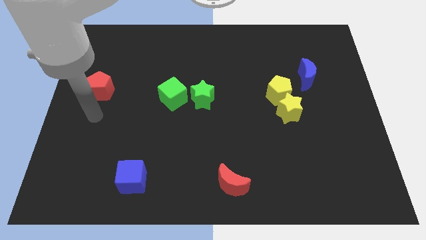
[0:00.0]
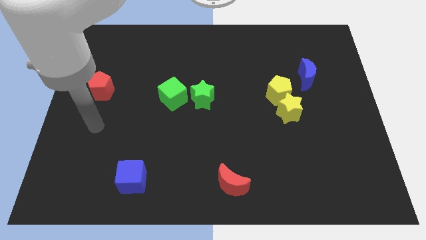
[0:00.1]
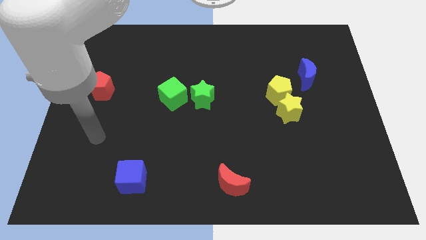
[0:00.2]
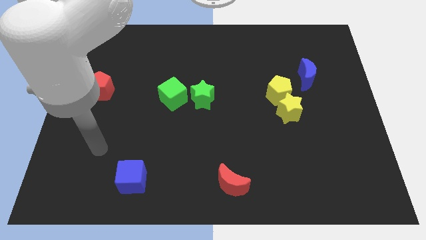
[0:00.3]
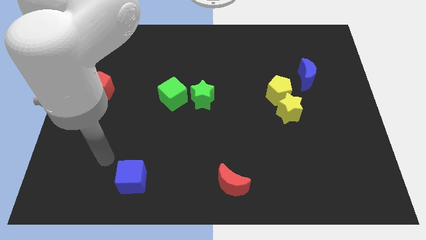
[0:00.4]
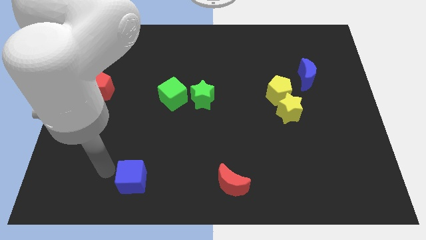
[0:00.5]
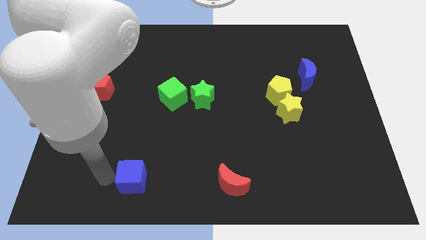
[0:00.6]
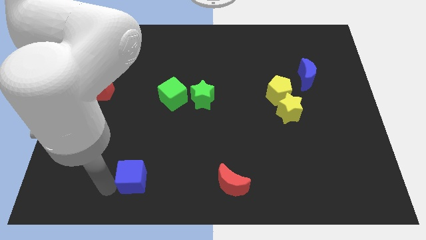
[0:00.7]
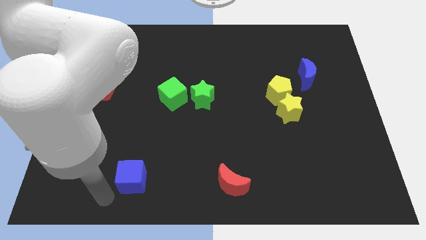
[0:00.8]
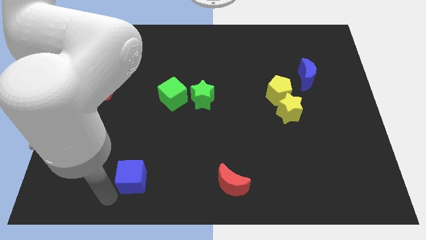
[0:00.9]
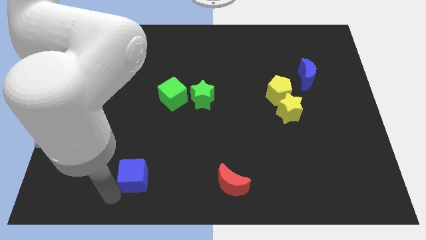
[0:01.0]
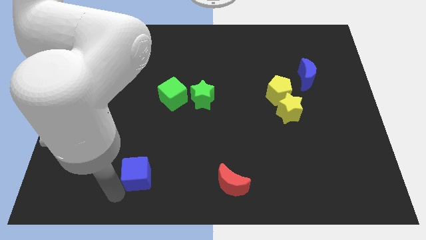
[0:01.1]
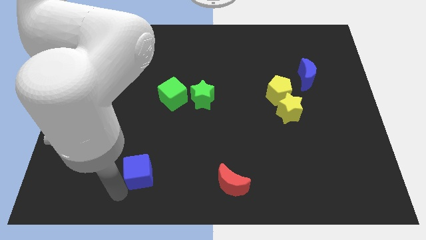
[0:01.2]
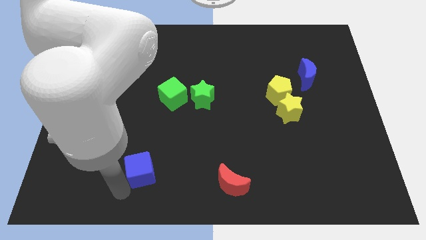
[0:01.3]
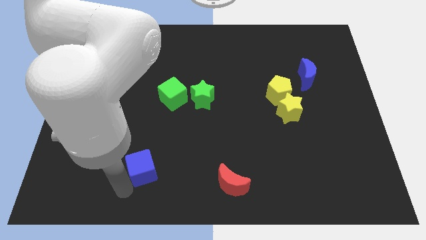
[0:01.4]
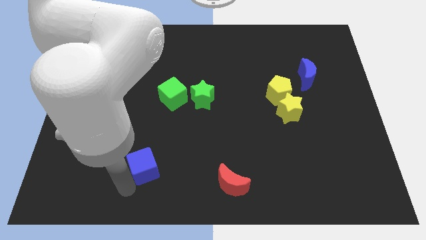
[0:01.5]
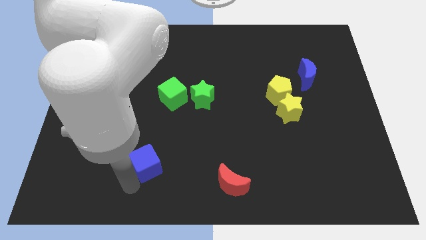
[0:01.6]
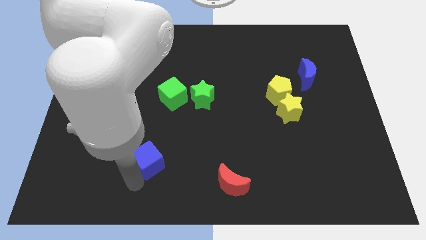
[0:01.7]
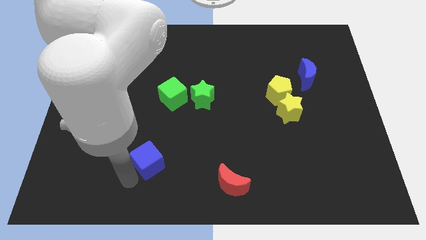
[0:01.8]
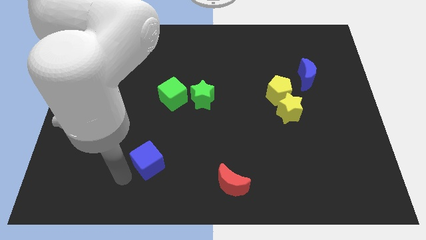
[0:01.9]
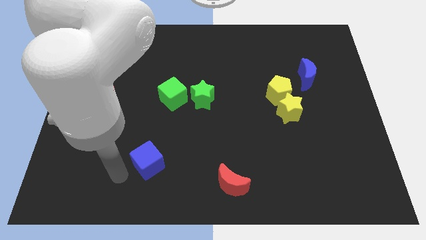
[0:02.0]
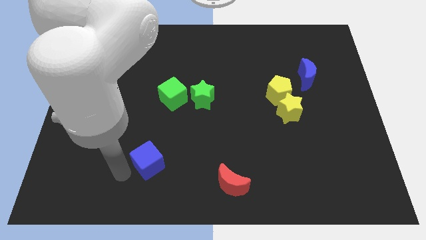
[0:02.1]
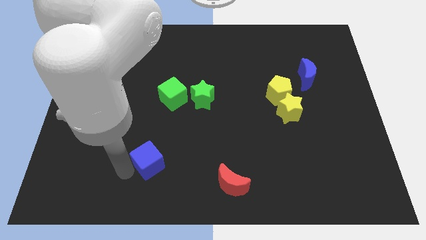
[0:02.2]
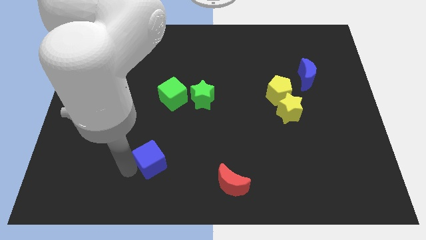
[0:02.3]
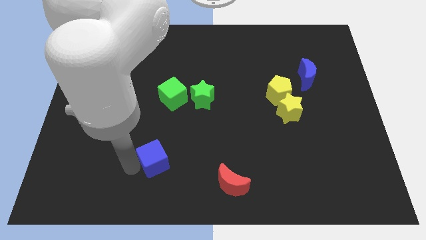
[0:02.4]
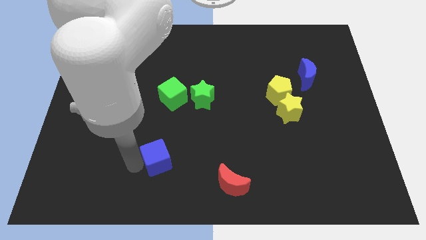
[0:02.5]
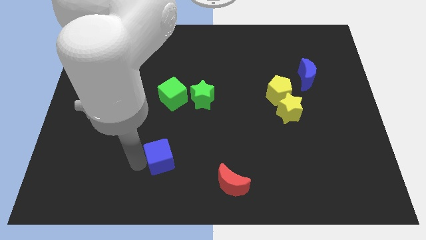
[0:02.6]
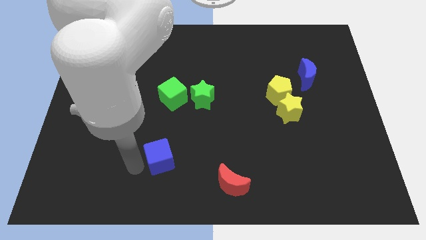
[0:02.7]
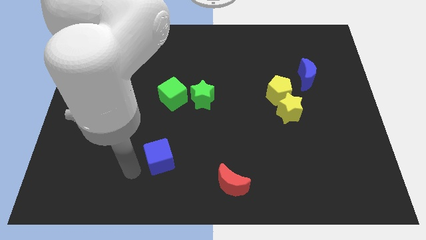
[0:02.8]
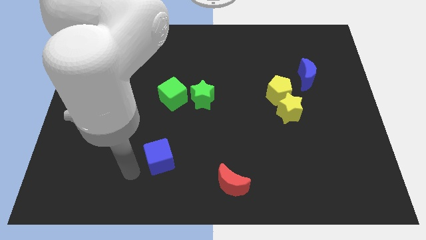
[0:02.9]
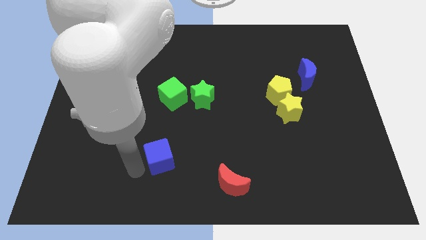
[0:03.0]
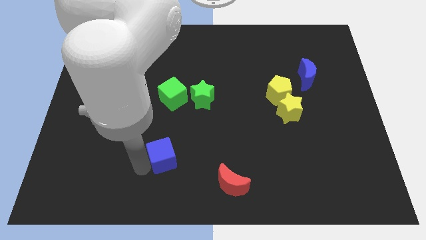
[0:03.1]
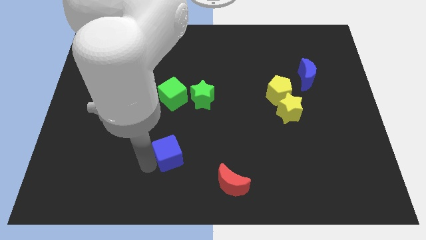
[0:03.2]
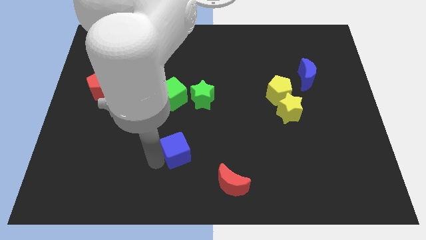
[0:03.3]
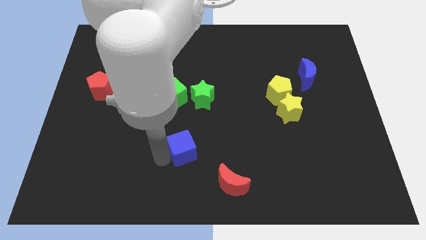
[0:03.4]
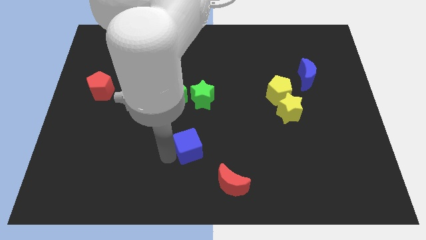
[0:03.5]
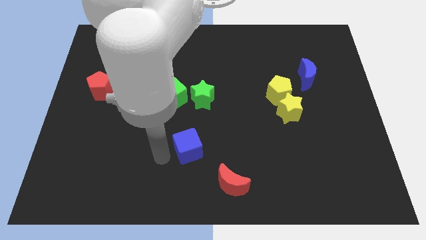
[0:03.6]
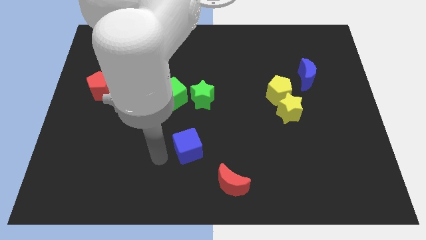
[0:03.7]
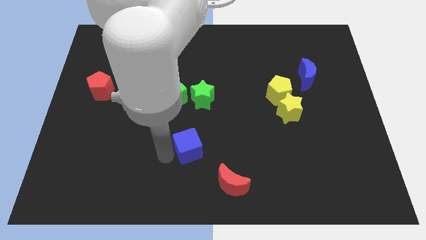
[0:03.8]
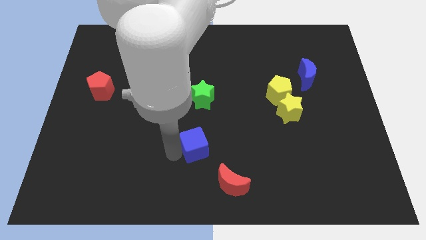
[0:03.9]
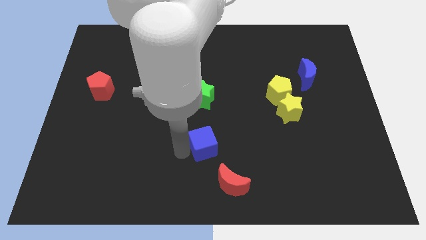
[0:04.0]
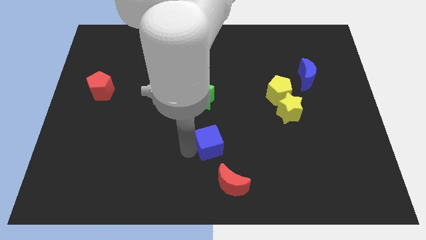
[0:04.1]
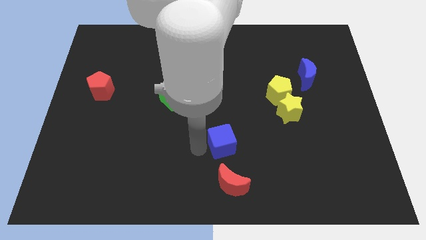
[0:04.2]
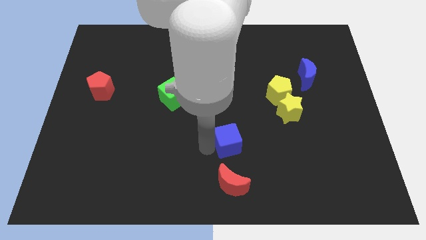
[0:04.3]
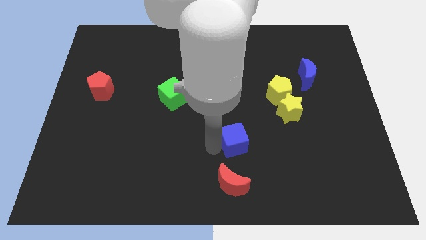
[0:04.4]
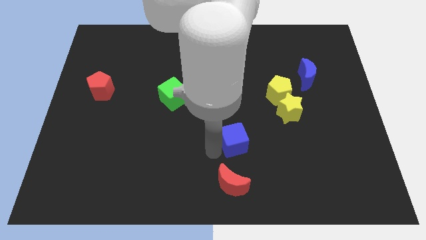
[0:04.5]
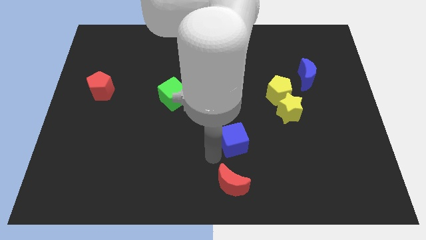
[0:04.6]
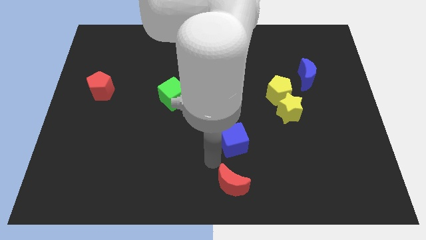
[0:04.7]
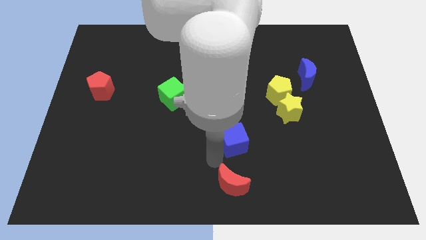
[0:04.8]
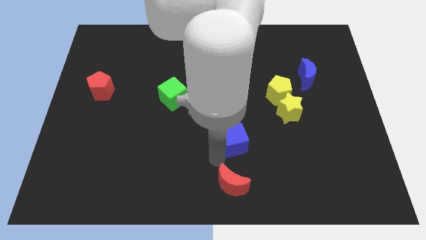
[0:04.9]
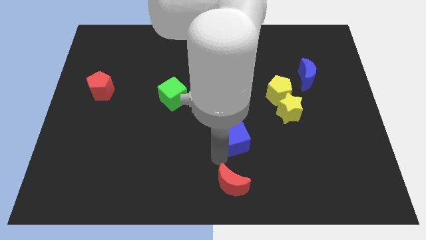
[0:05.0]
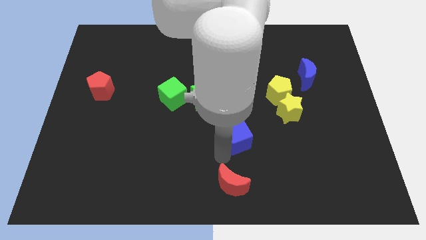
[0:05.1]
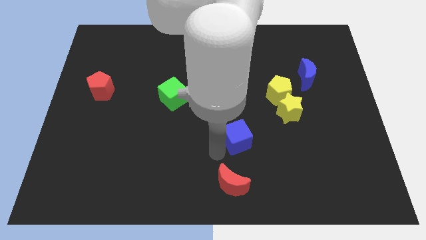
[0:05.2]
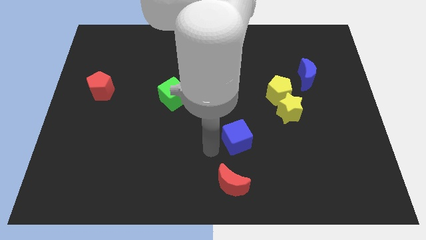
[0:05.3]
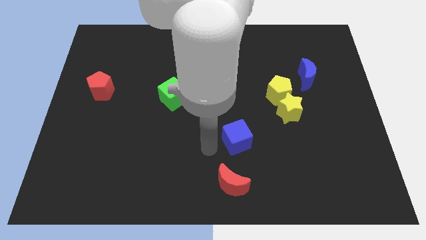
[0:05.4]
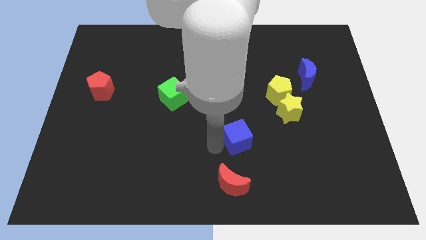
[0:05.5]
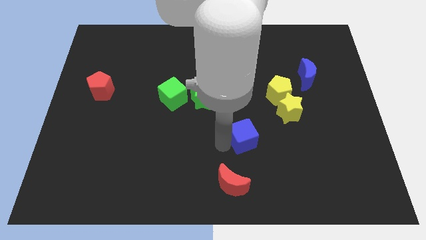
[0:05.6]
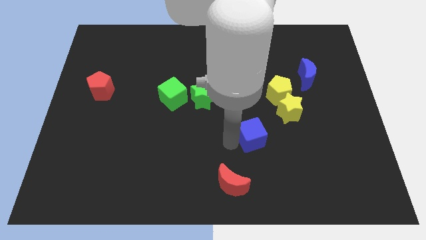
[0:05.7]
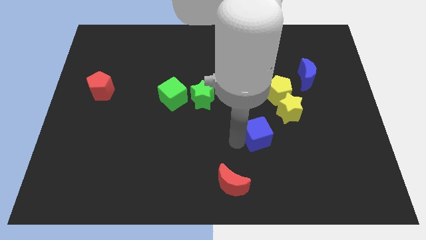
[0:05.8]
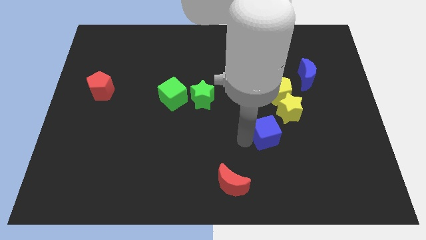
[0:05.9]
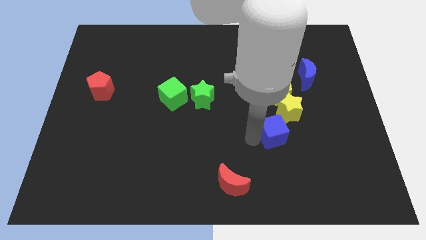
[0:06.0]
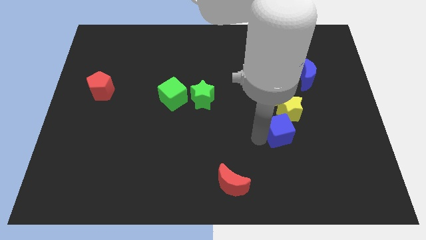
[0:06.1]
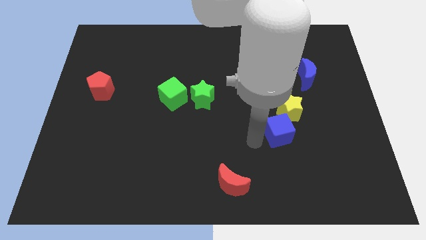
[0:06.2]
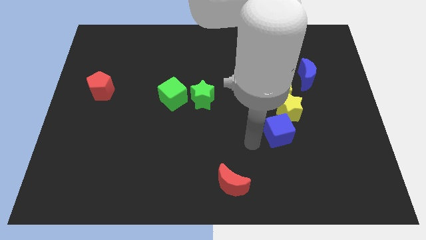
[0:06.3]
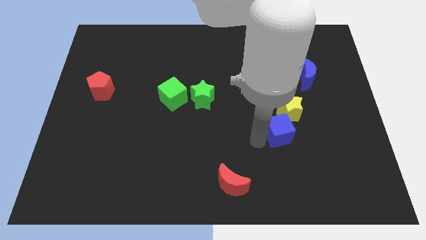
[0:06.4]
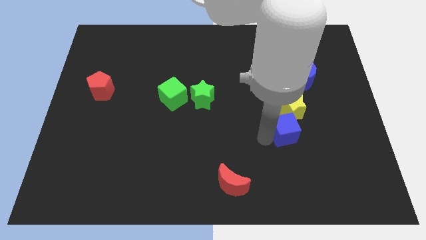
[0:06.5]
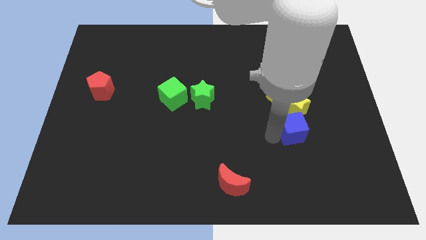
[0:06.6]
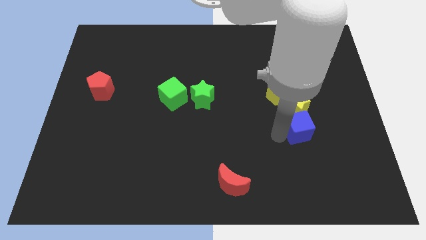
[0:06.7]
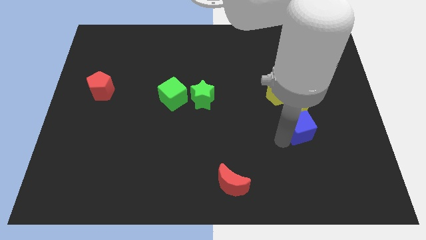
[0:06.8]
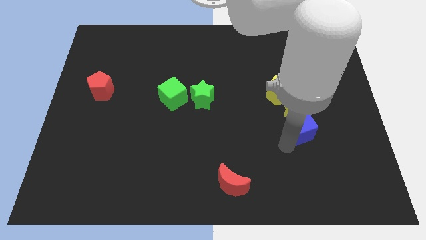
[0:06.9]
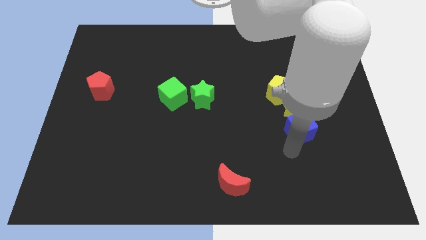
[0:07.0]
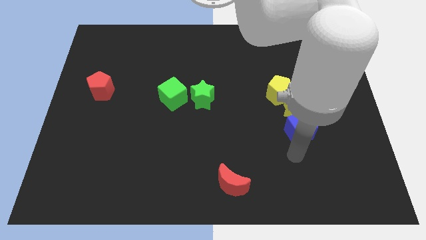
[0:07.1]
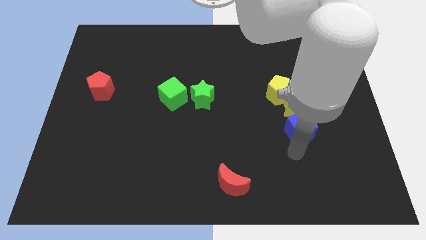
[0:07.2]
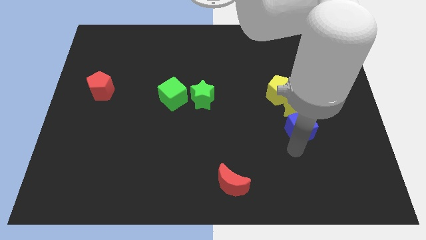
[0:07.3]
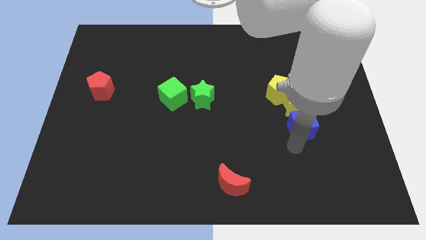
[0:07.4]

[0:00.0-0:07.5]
slide the blue cube to the bottom right of the yellow pentagon

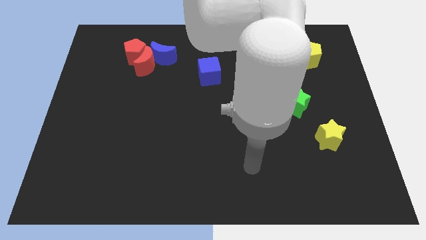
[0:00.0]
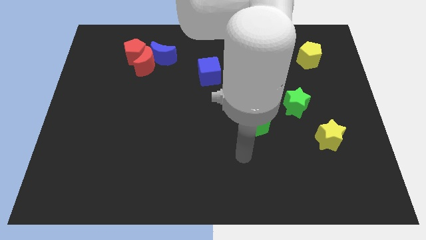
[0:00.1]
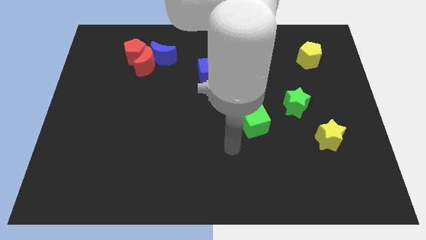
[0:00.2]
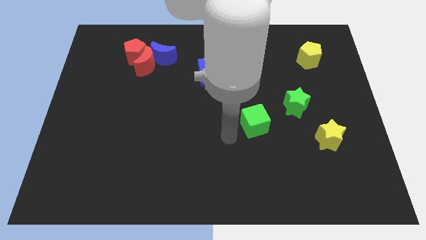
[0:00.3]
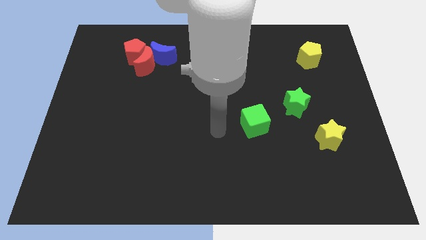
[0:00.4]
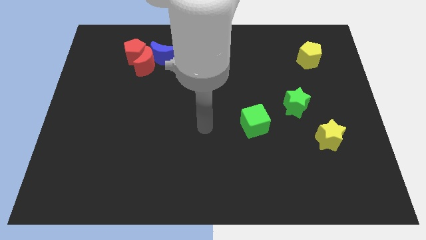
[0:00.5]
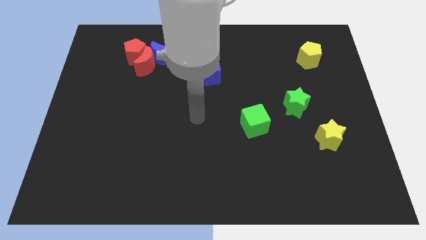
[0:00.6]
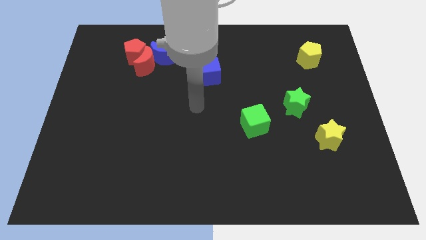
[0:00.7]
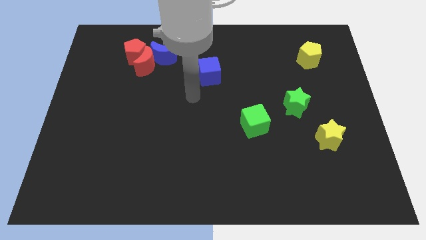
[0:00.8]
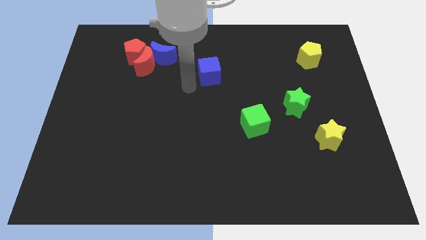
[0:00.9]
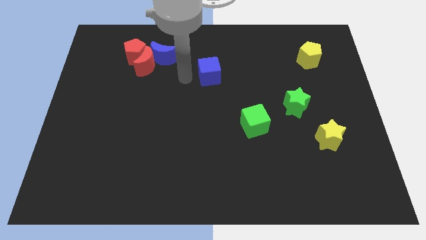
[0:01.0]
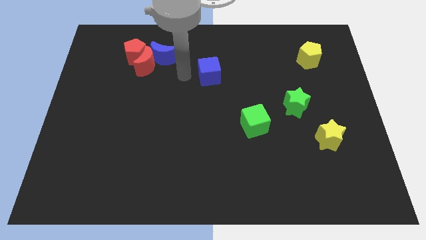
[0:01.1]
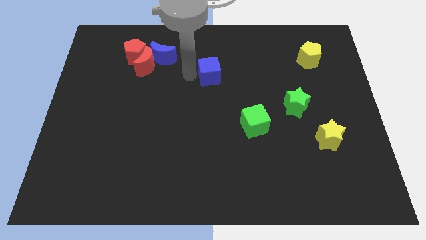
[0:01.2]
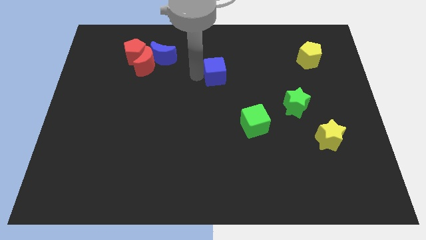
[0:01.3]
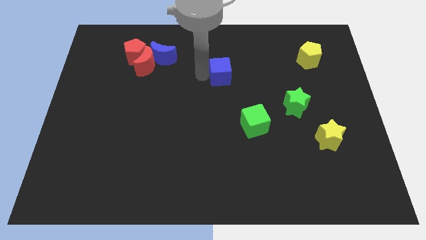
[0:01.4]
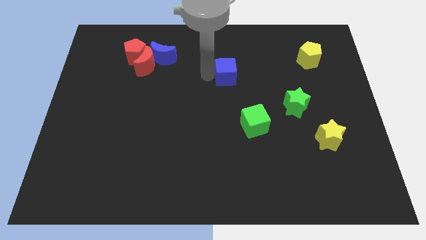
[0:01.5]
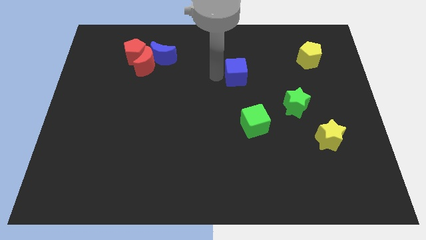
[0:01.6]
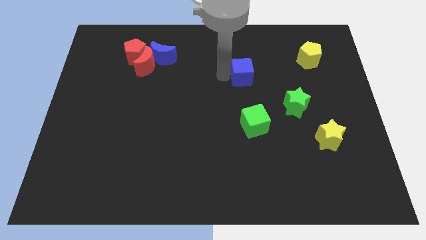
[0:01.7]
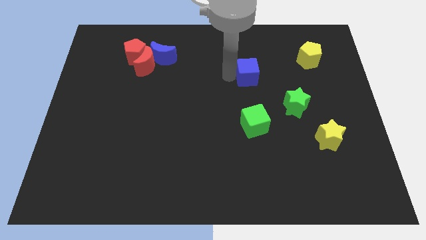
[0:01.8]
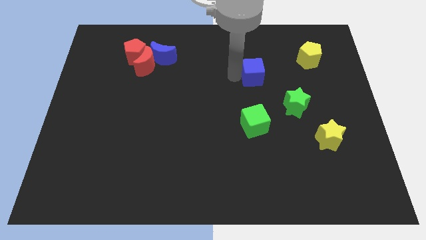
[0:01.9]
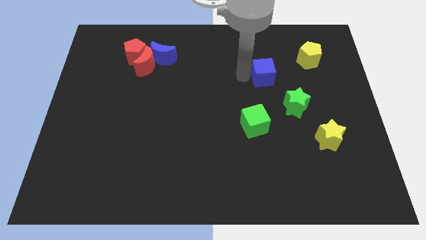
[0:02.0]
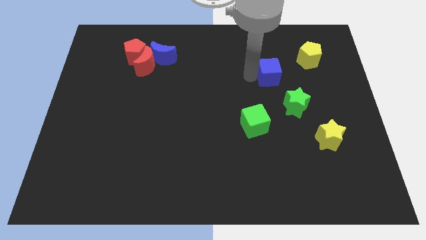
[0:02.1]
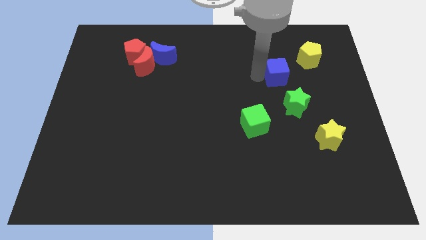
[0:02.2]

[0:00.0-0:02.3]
slide the blue cube to the top side of the green star
